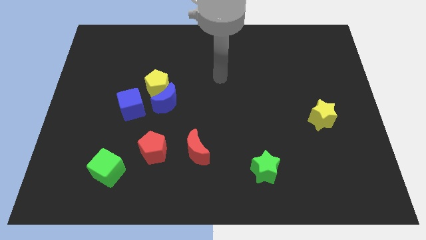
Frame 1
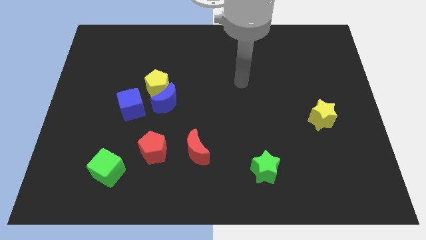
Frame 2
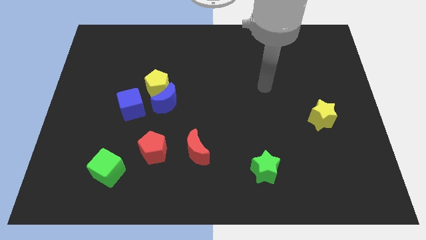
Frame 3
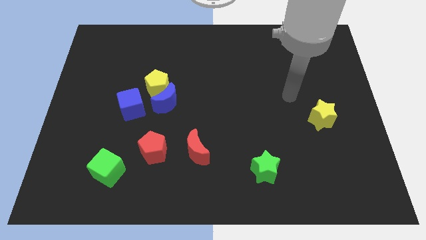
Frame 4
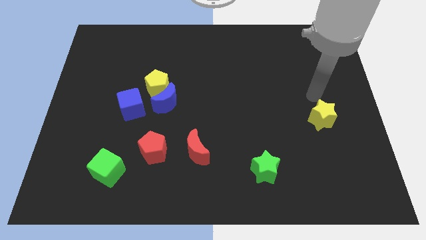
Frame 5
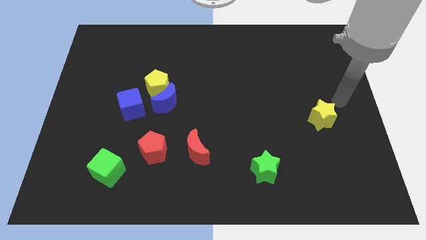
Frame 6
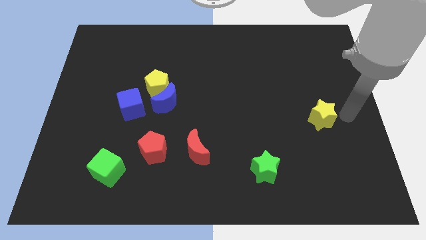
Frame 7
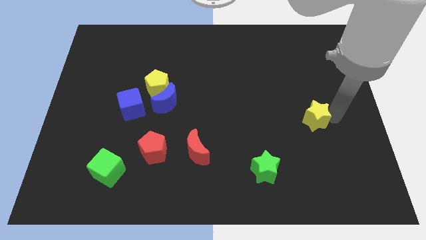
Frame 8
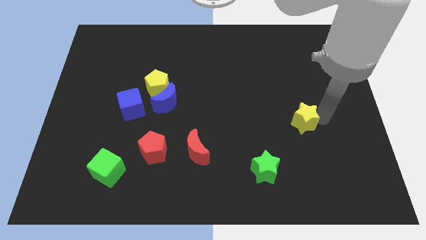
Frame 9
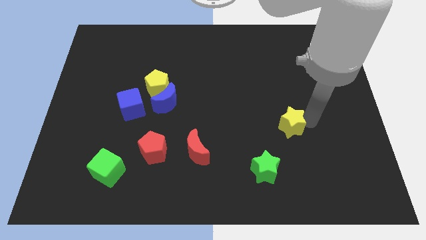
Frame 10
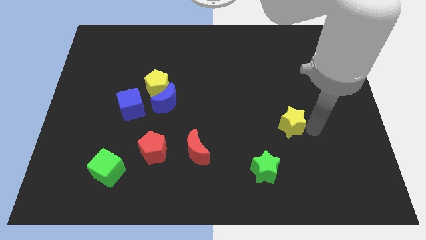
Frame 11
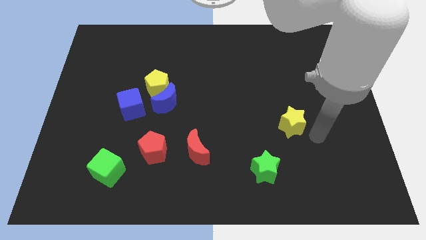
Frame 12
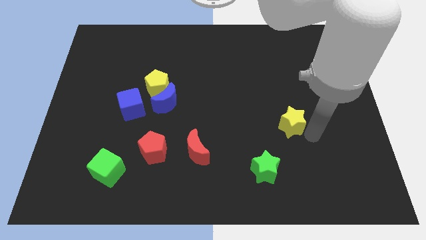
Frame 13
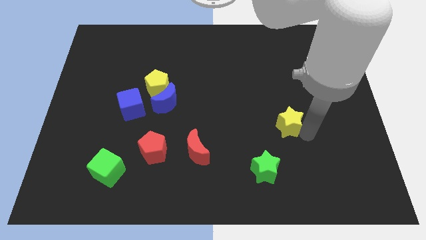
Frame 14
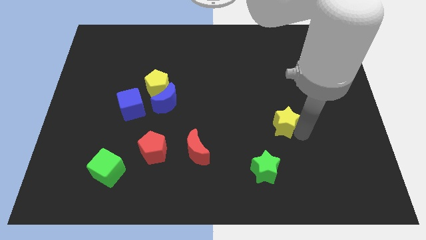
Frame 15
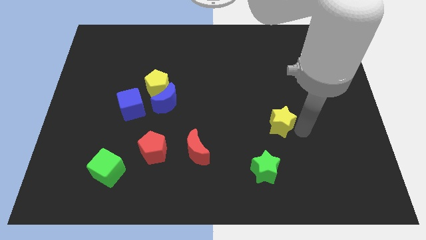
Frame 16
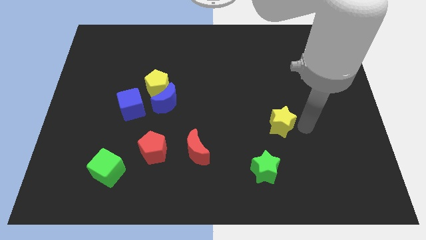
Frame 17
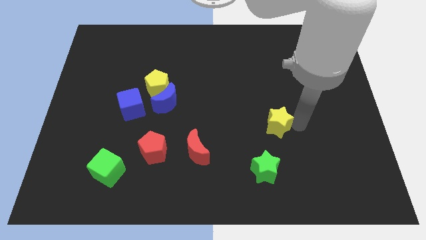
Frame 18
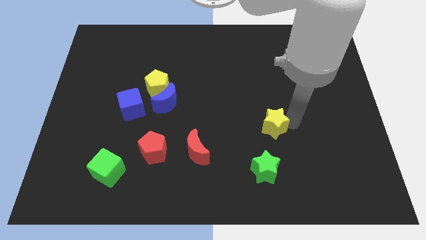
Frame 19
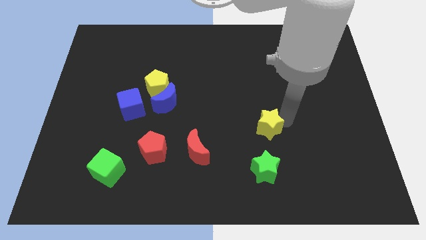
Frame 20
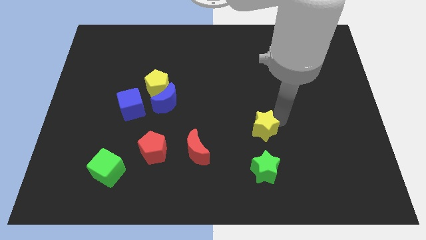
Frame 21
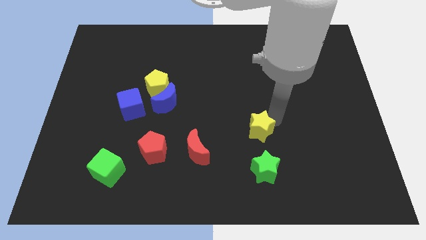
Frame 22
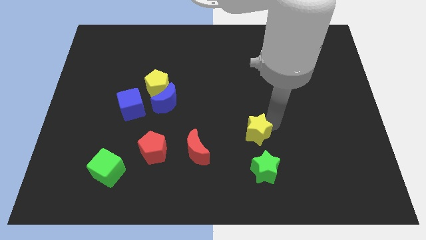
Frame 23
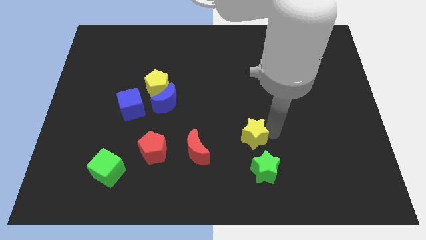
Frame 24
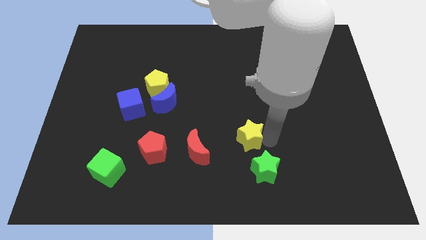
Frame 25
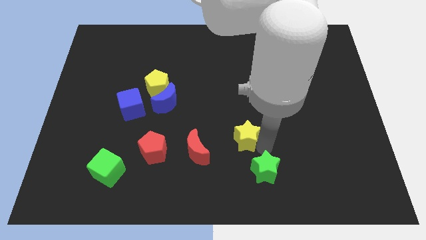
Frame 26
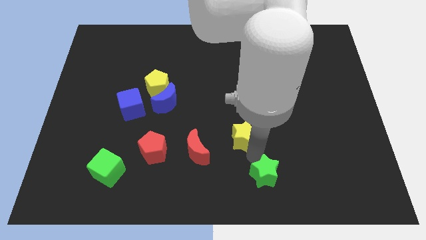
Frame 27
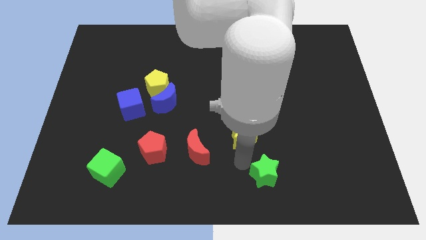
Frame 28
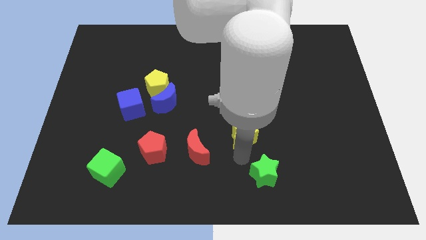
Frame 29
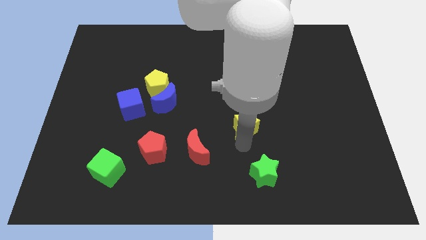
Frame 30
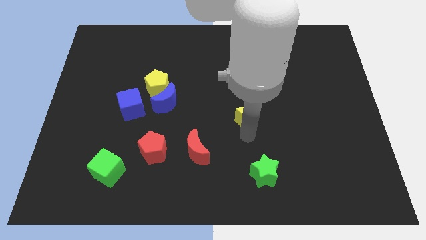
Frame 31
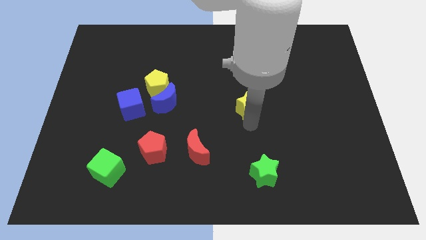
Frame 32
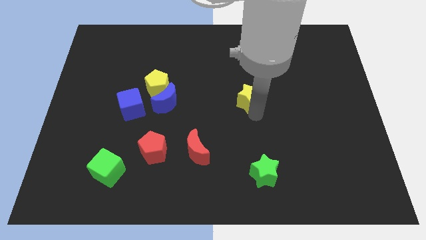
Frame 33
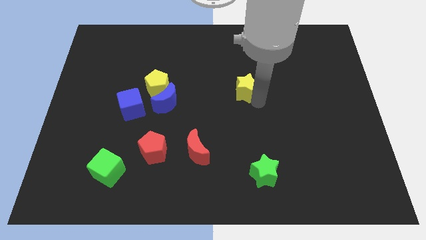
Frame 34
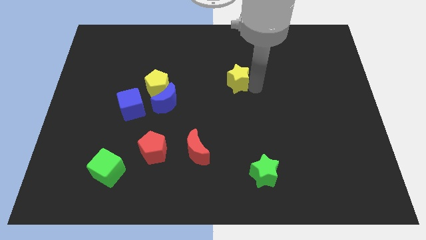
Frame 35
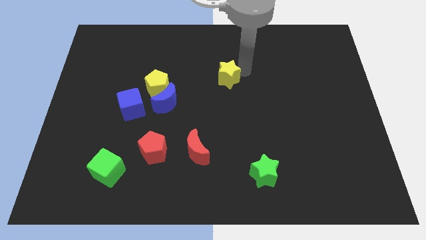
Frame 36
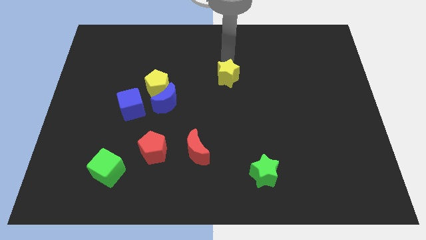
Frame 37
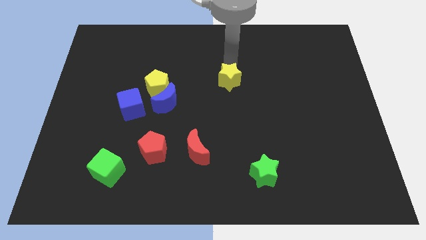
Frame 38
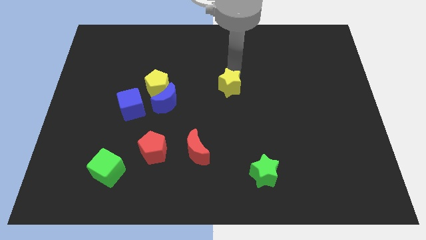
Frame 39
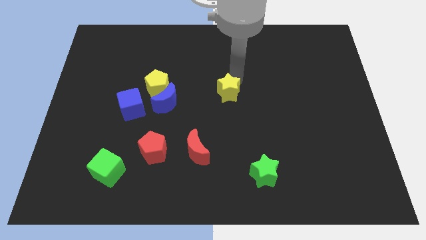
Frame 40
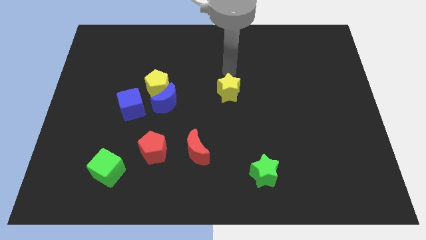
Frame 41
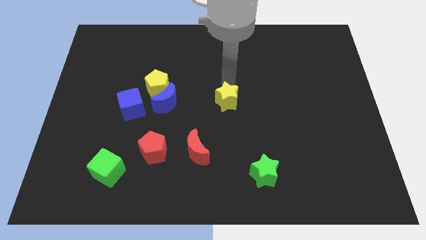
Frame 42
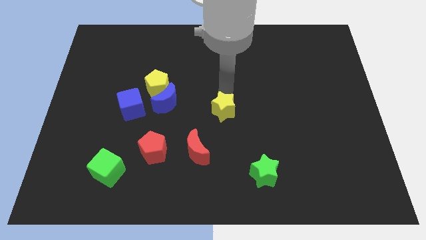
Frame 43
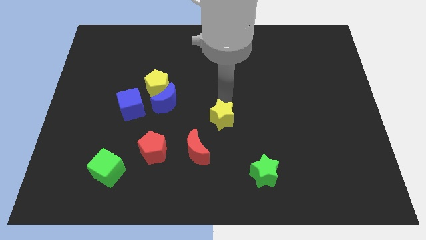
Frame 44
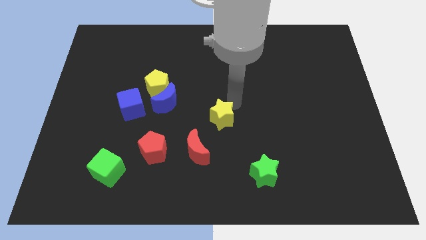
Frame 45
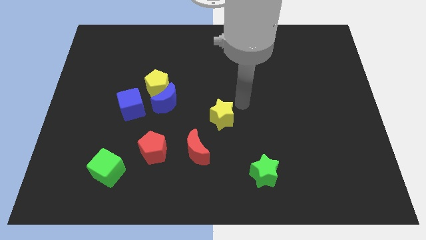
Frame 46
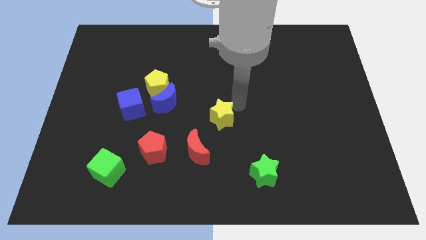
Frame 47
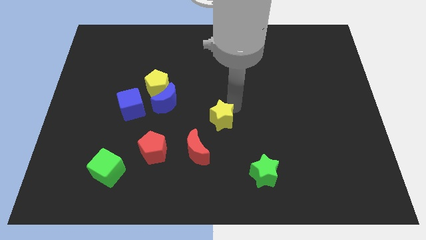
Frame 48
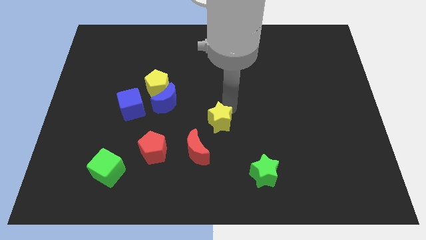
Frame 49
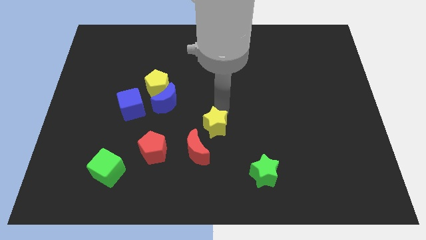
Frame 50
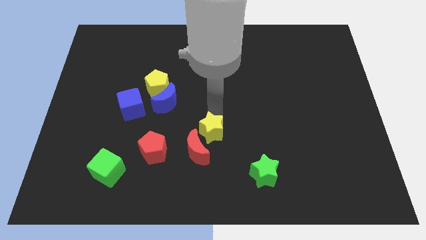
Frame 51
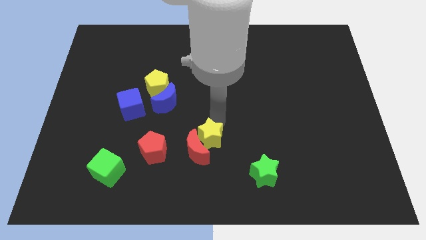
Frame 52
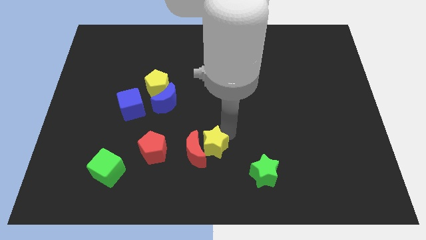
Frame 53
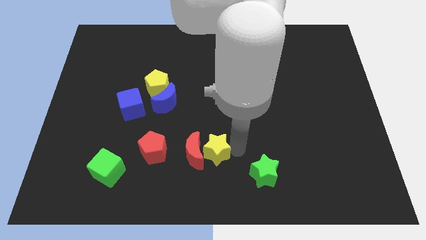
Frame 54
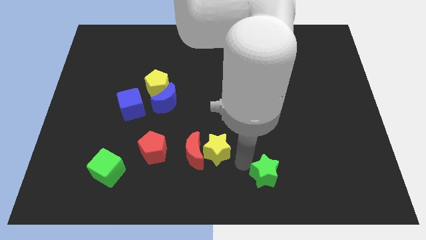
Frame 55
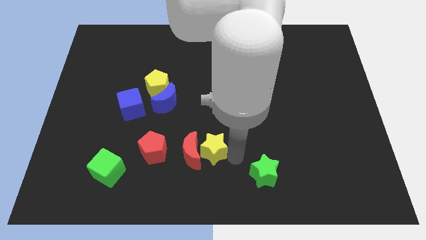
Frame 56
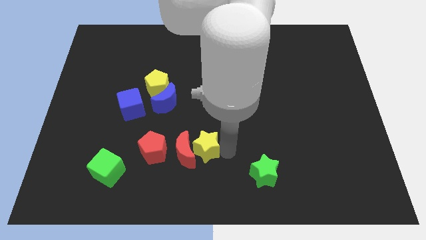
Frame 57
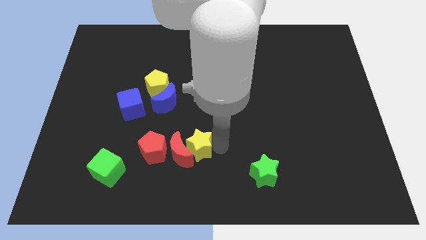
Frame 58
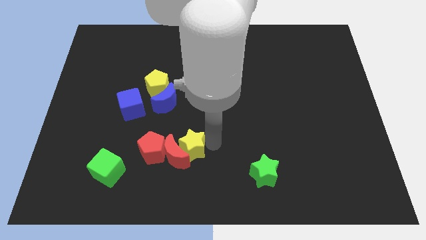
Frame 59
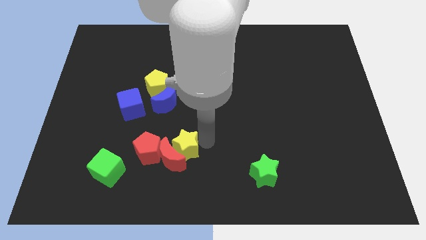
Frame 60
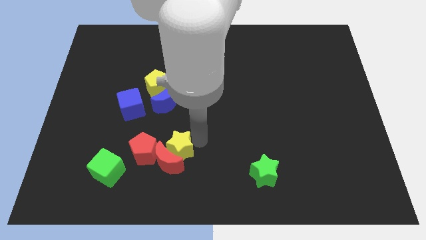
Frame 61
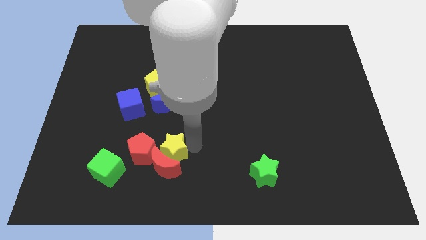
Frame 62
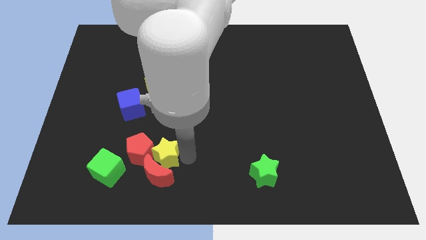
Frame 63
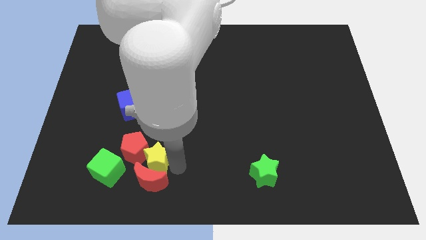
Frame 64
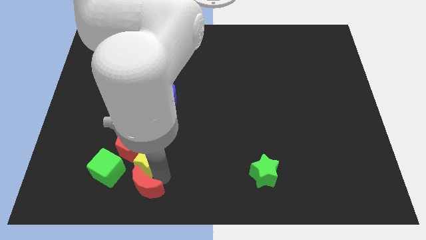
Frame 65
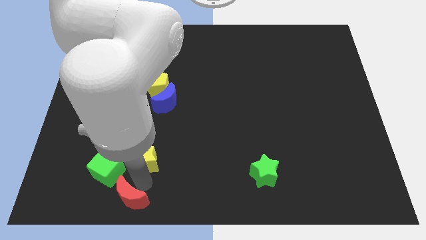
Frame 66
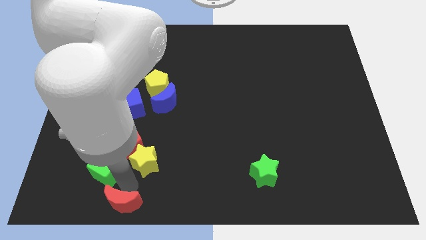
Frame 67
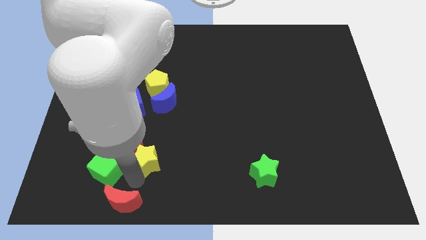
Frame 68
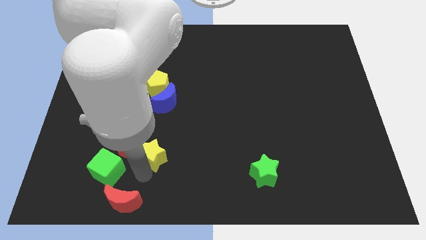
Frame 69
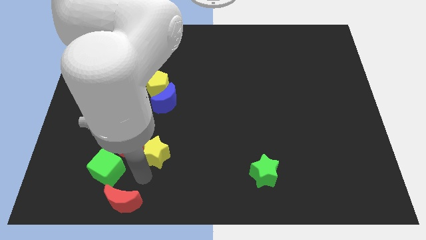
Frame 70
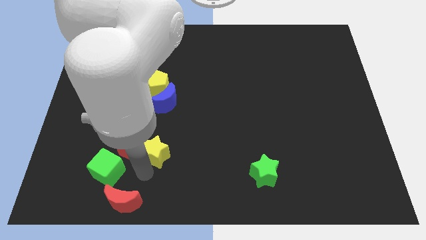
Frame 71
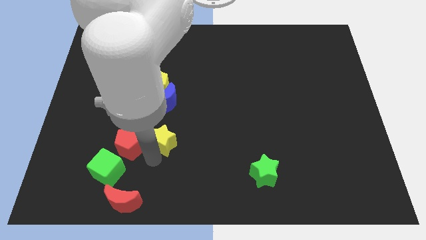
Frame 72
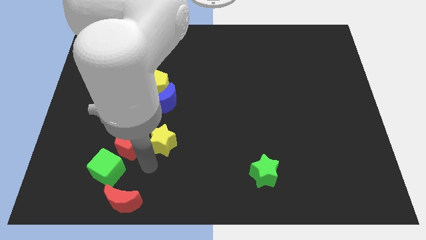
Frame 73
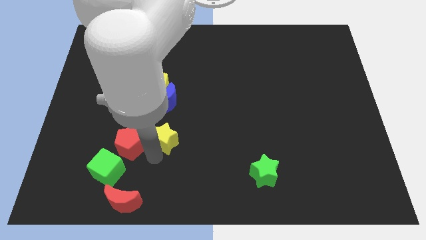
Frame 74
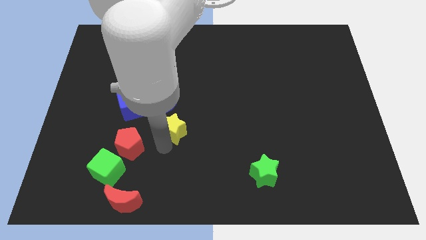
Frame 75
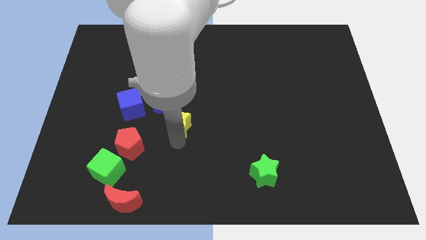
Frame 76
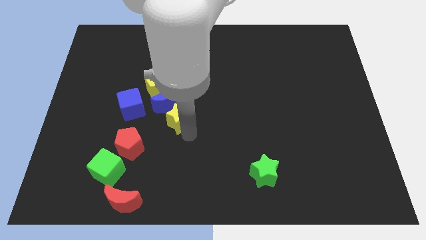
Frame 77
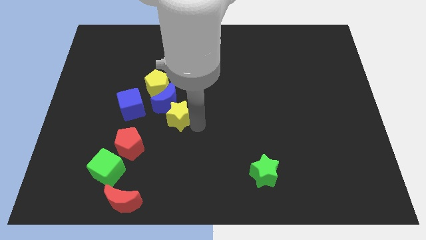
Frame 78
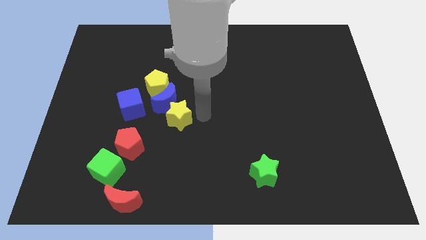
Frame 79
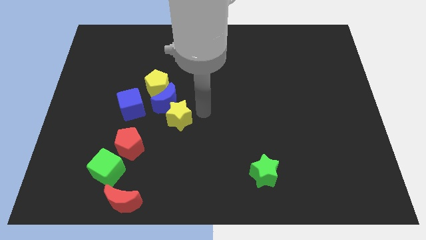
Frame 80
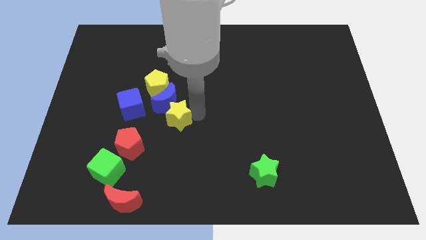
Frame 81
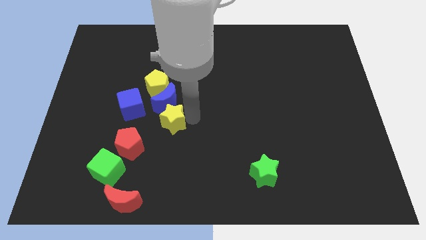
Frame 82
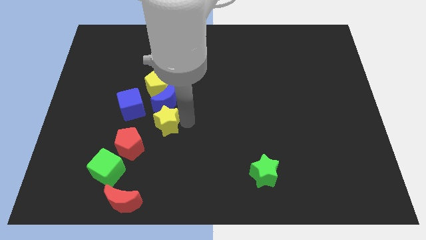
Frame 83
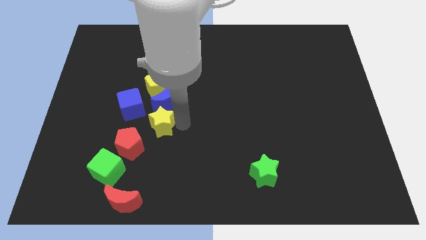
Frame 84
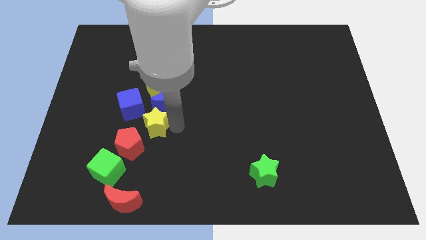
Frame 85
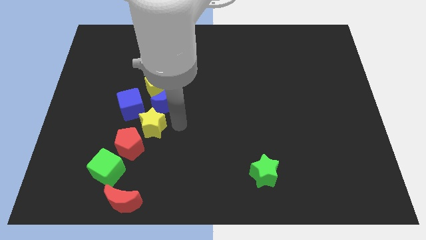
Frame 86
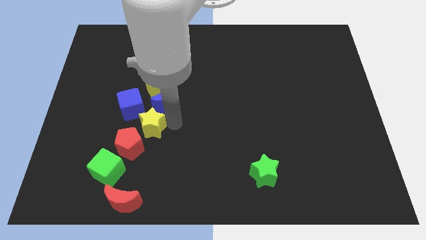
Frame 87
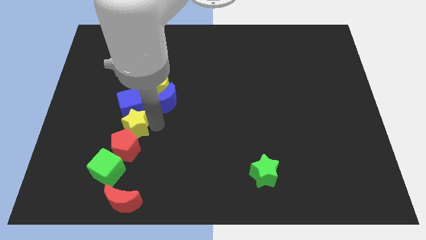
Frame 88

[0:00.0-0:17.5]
push the yellow star to the top side of the green cube
